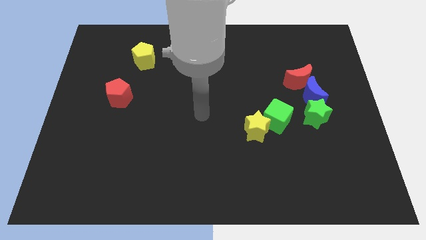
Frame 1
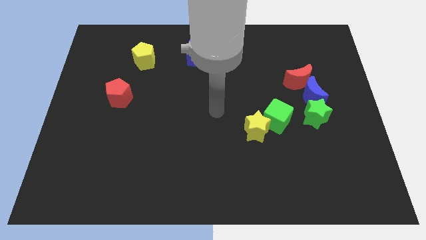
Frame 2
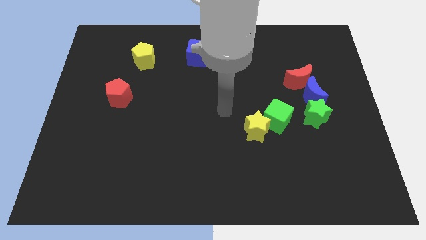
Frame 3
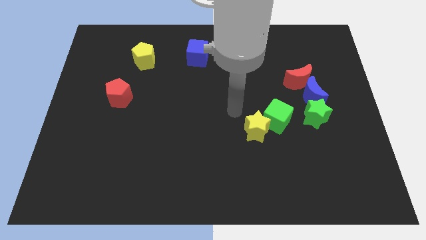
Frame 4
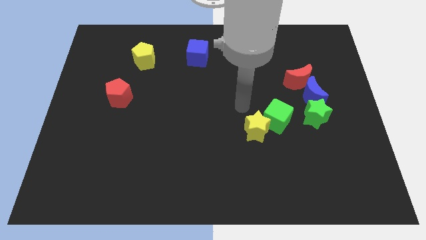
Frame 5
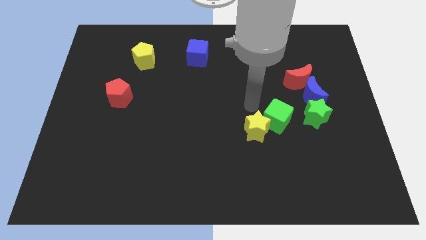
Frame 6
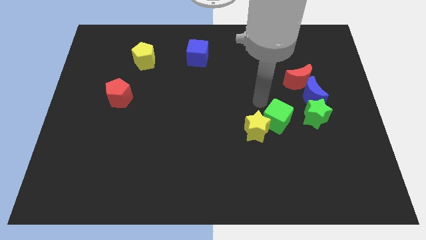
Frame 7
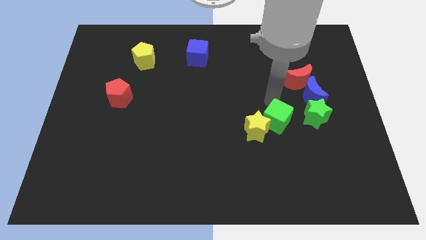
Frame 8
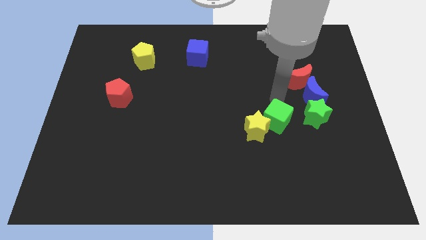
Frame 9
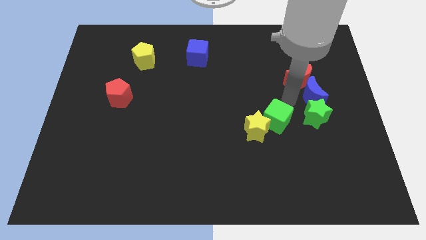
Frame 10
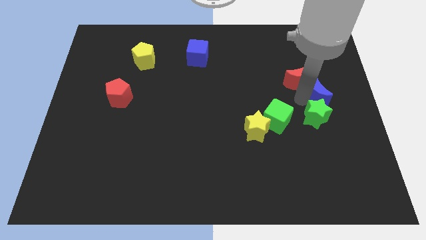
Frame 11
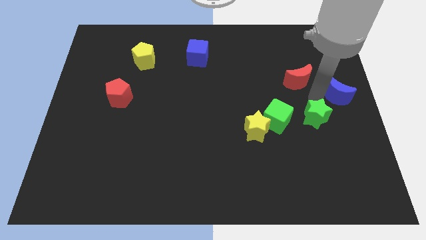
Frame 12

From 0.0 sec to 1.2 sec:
pull the red moon apart from the blue moon

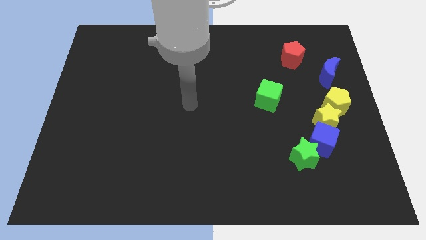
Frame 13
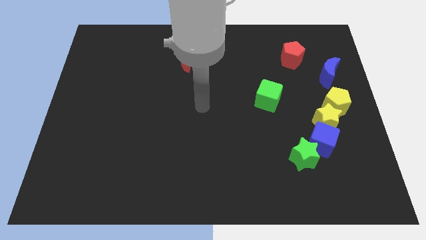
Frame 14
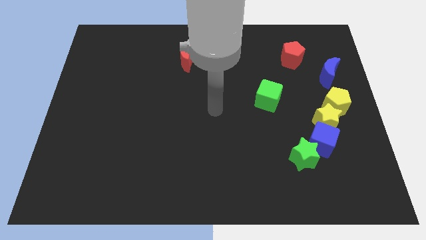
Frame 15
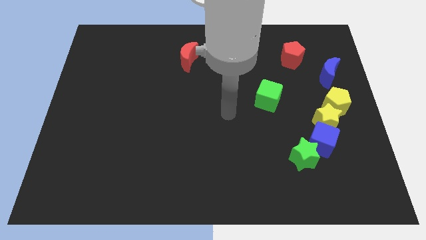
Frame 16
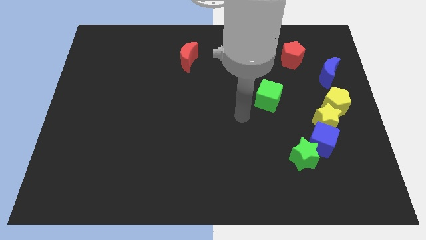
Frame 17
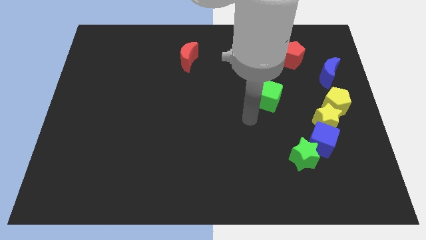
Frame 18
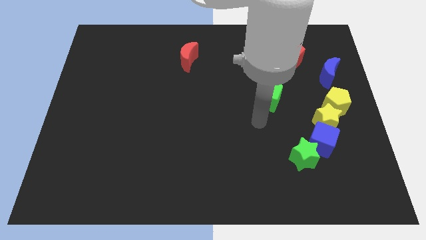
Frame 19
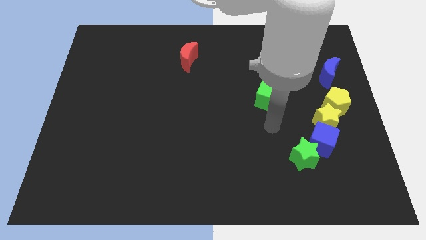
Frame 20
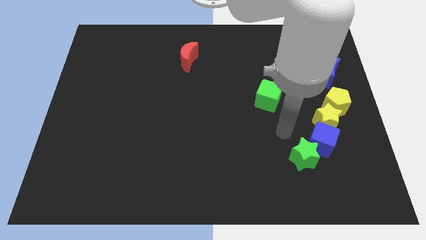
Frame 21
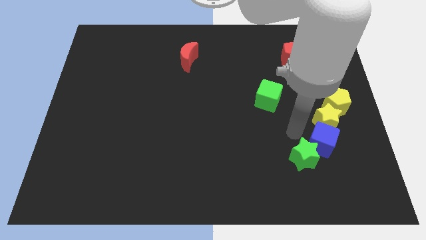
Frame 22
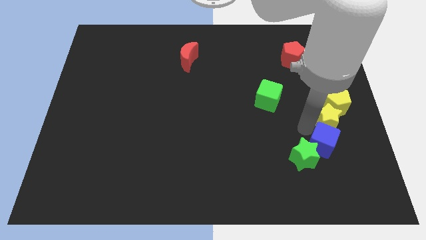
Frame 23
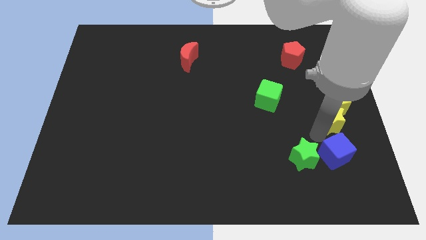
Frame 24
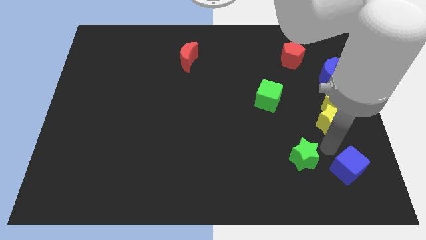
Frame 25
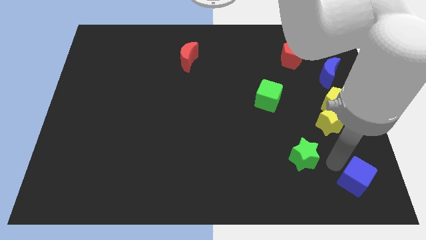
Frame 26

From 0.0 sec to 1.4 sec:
move the green star away from the blue cube

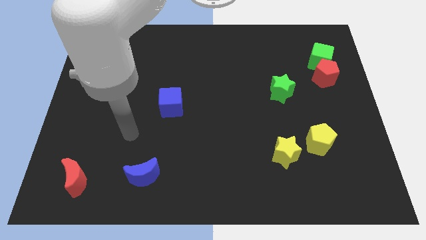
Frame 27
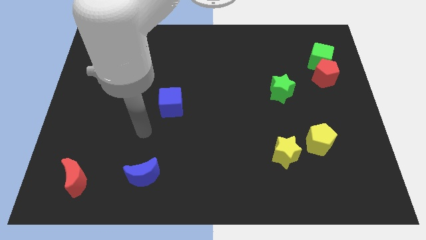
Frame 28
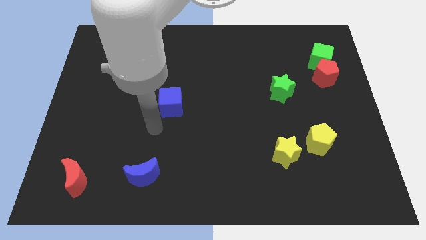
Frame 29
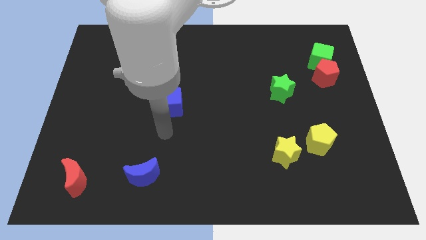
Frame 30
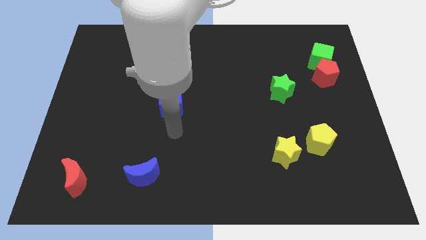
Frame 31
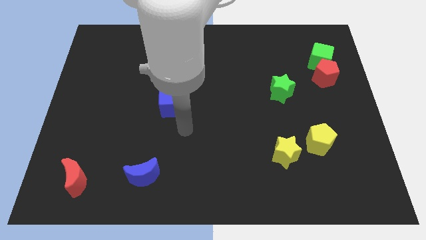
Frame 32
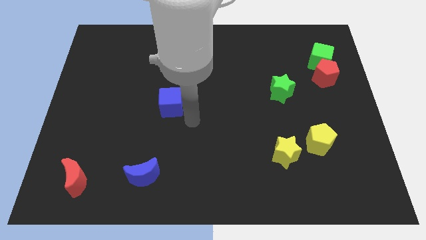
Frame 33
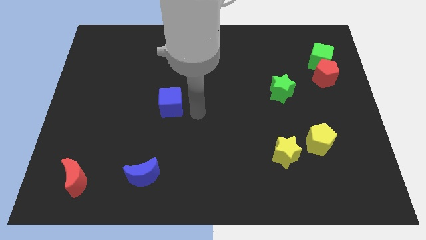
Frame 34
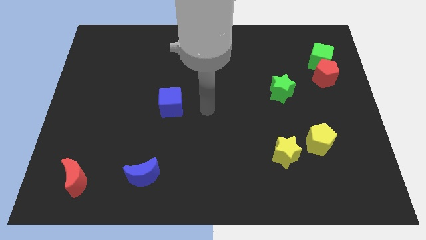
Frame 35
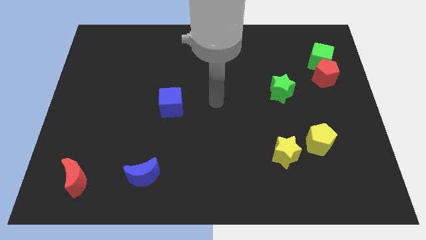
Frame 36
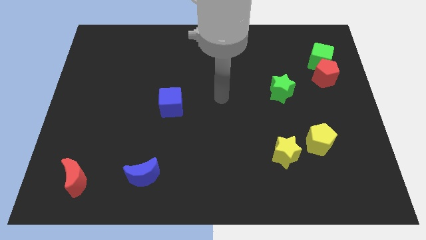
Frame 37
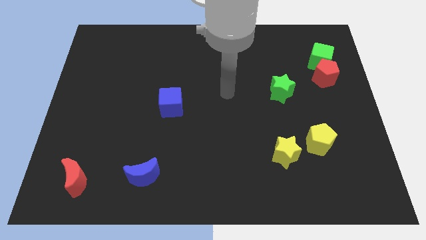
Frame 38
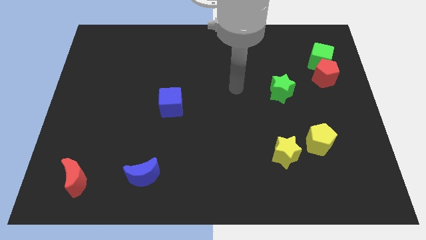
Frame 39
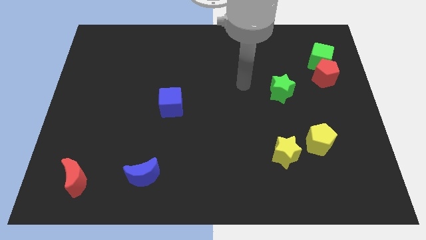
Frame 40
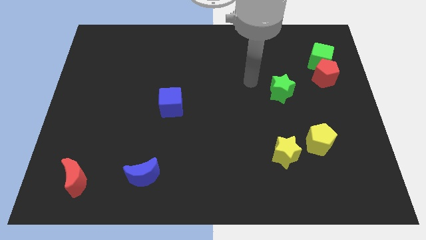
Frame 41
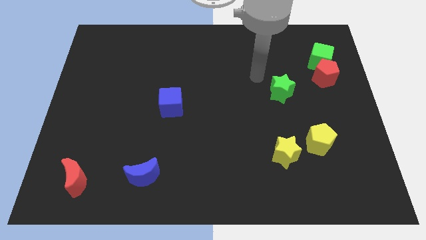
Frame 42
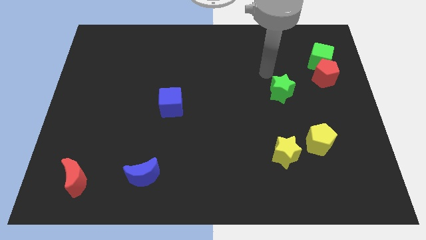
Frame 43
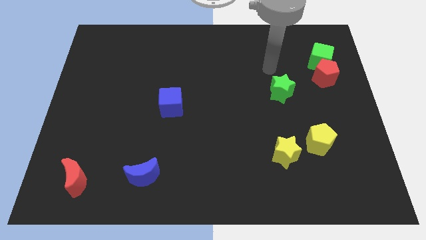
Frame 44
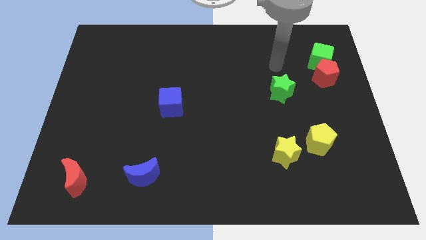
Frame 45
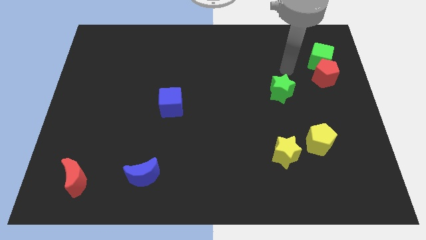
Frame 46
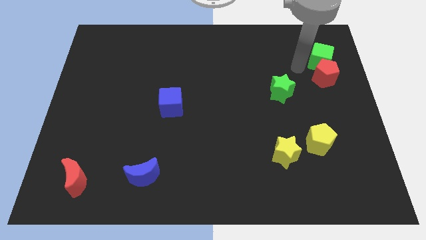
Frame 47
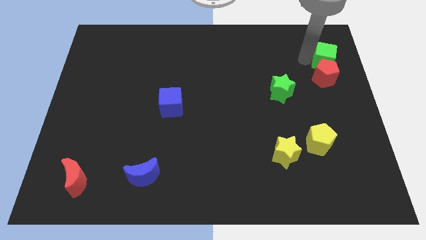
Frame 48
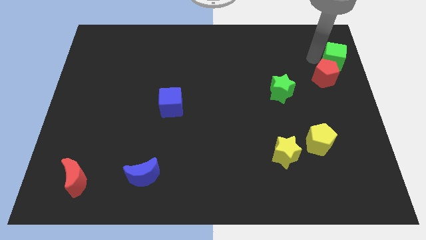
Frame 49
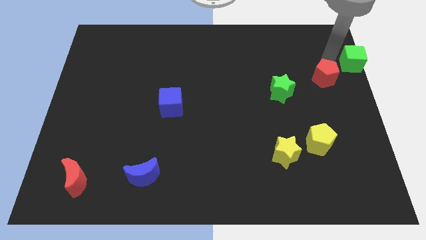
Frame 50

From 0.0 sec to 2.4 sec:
separate the red pentagon from the green cube

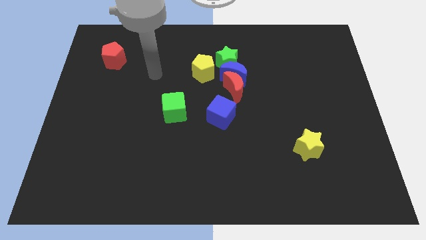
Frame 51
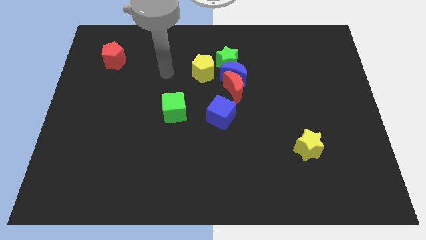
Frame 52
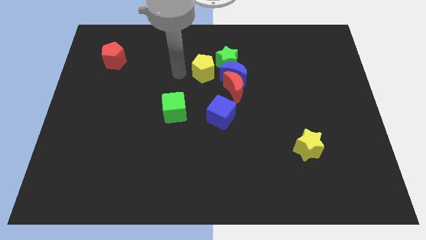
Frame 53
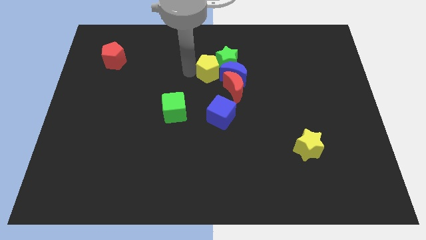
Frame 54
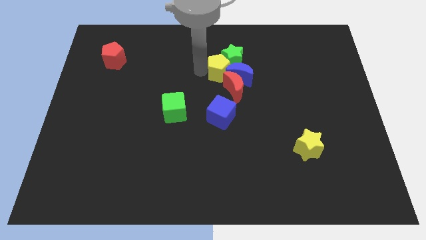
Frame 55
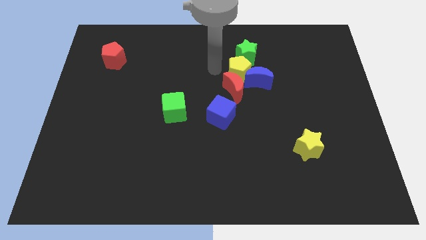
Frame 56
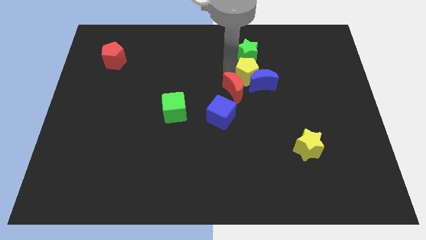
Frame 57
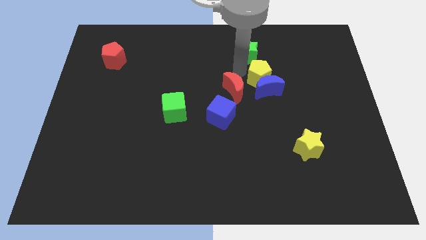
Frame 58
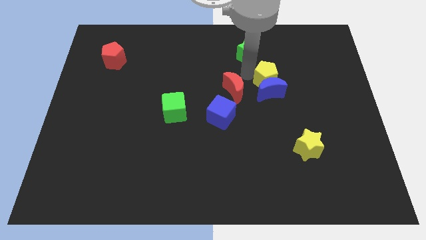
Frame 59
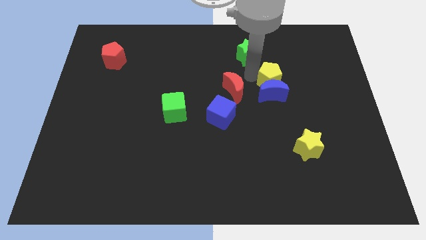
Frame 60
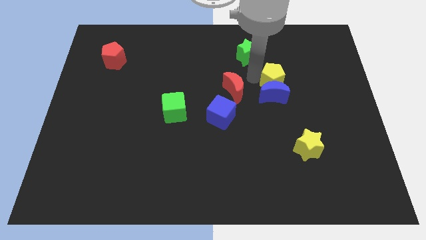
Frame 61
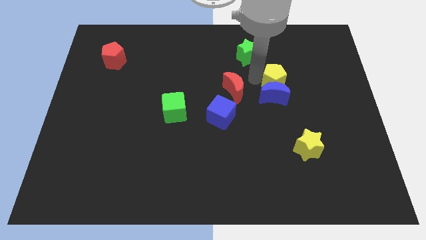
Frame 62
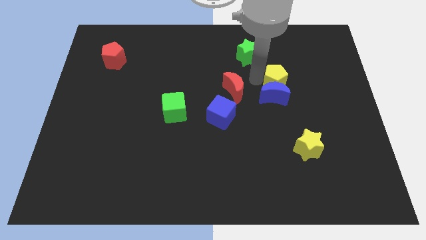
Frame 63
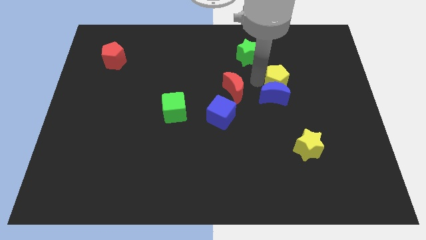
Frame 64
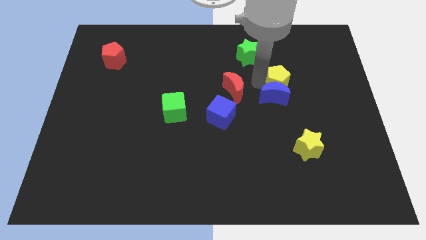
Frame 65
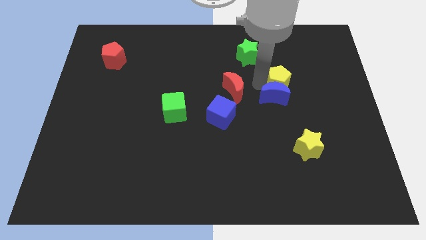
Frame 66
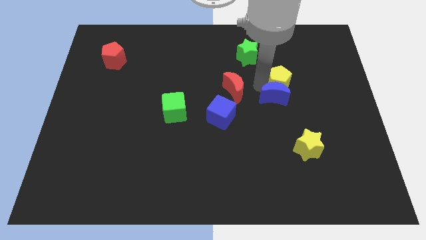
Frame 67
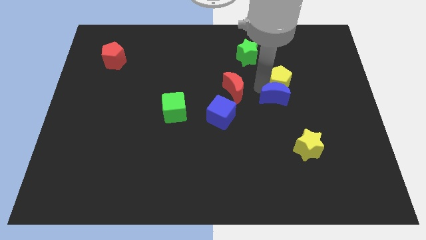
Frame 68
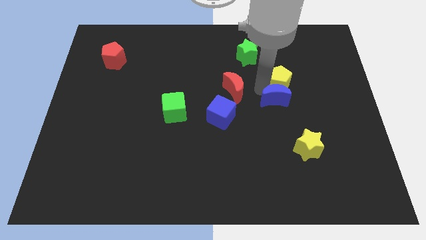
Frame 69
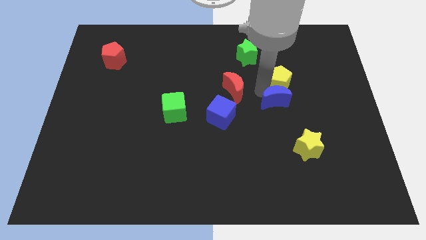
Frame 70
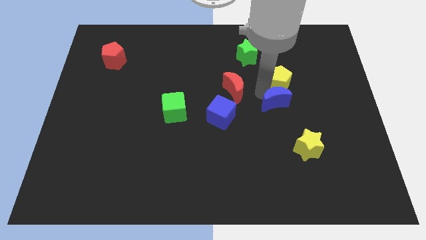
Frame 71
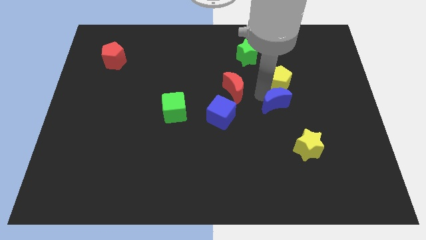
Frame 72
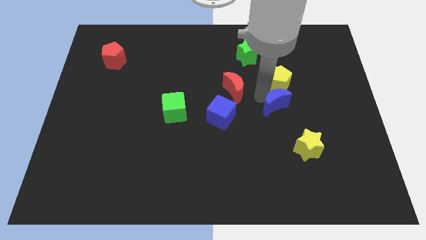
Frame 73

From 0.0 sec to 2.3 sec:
pull the blue moon apart from the group of blocks

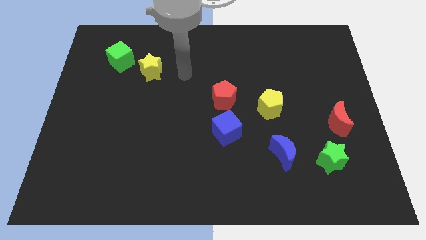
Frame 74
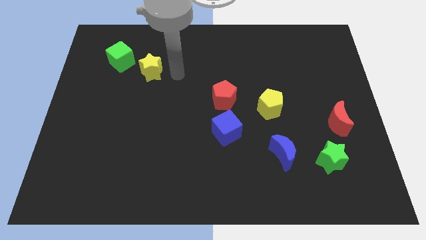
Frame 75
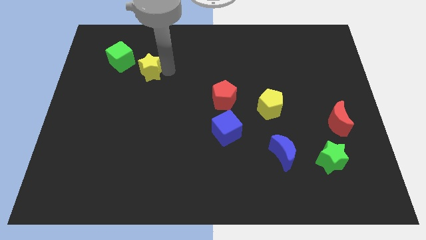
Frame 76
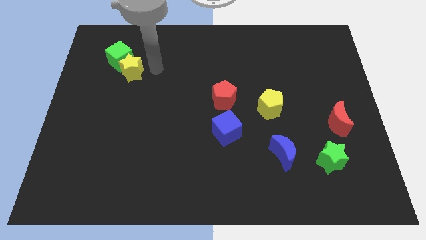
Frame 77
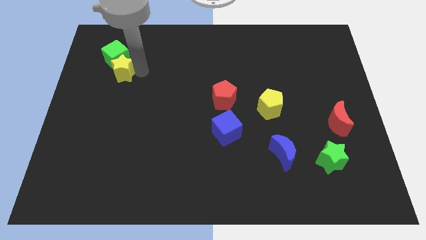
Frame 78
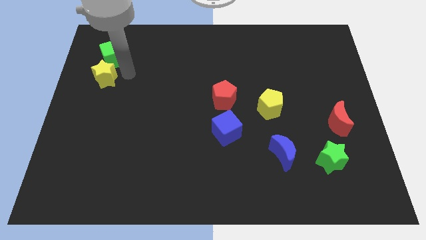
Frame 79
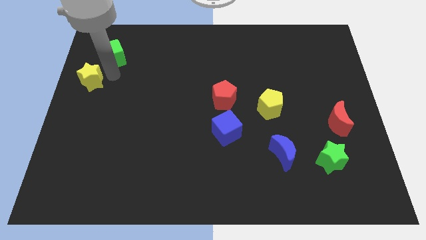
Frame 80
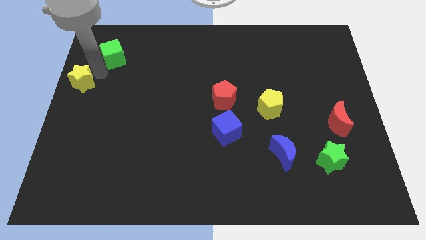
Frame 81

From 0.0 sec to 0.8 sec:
pull the green cube apart from the yellow star

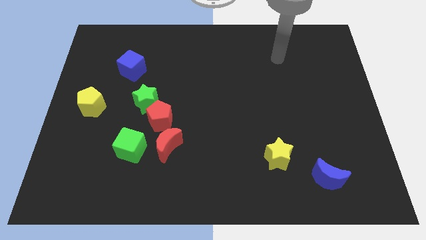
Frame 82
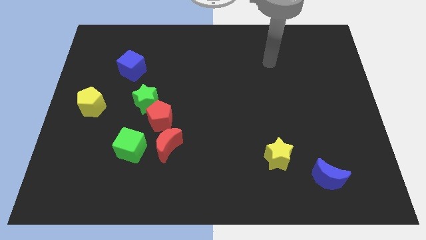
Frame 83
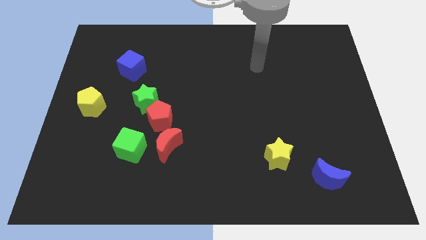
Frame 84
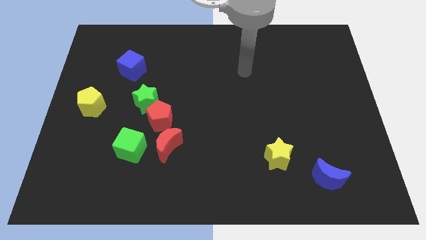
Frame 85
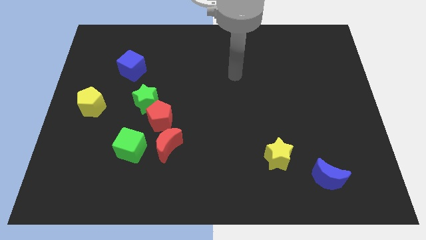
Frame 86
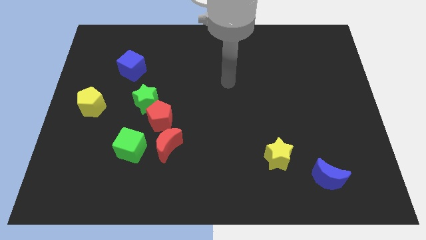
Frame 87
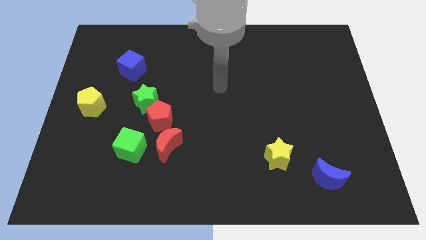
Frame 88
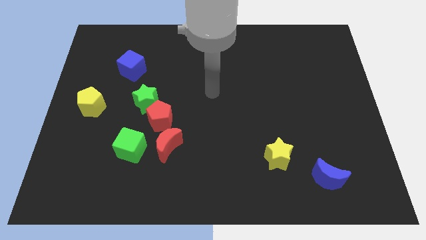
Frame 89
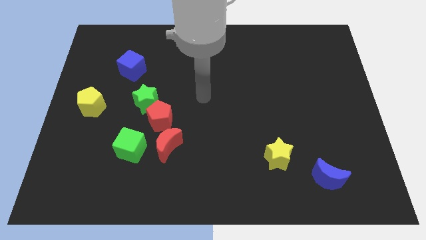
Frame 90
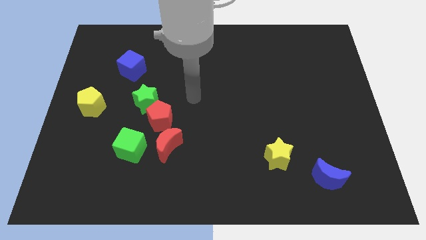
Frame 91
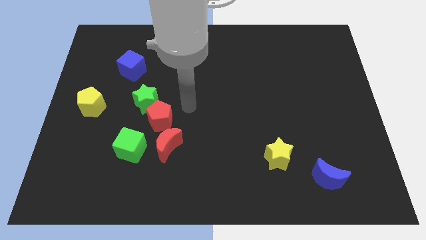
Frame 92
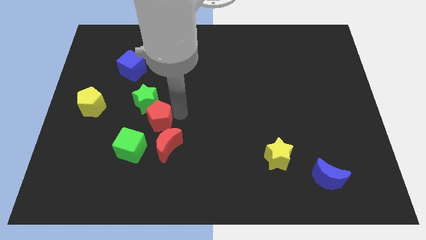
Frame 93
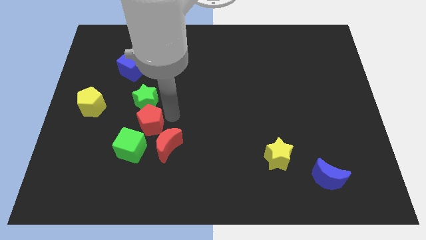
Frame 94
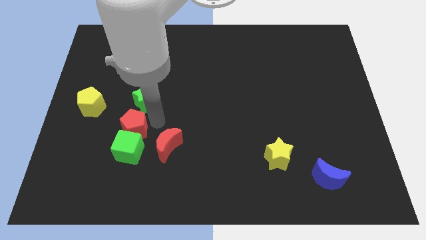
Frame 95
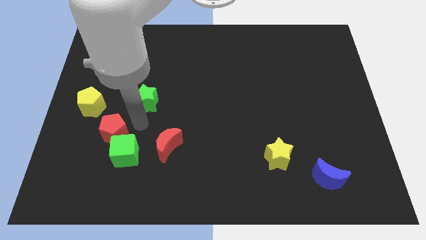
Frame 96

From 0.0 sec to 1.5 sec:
pull the green star apart from the red pentagon
